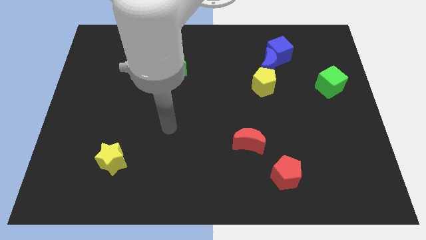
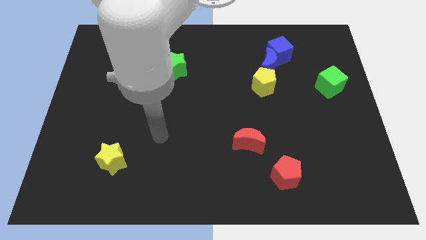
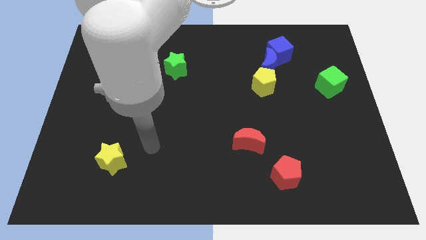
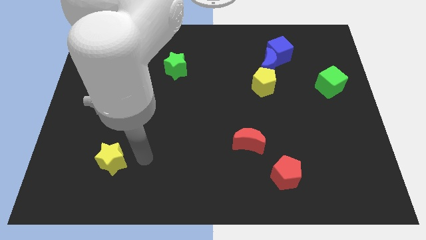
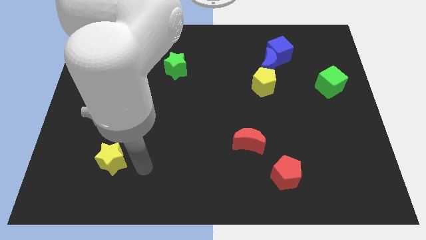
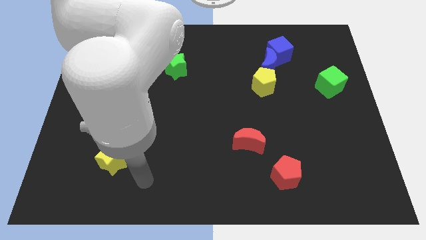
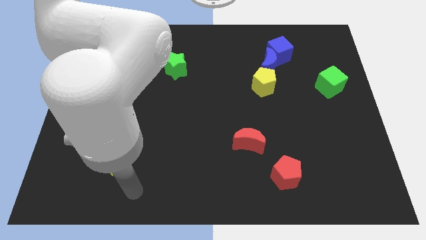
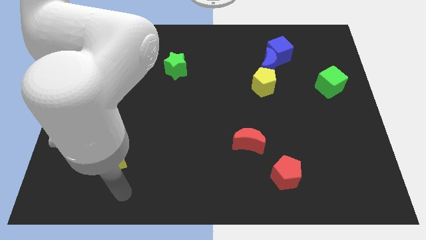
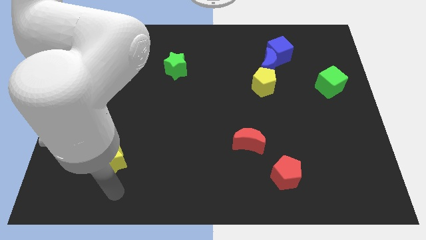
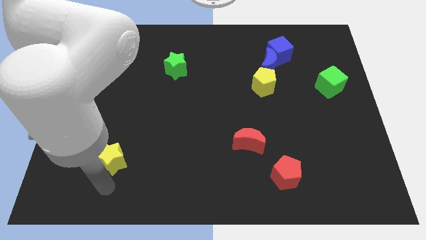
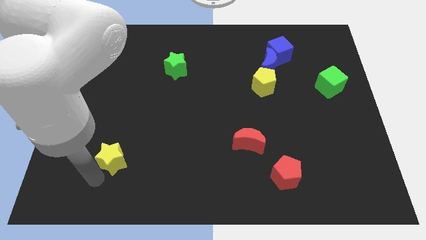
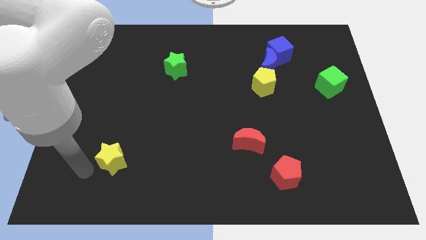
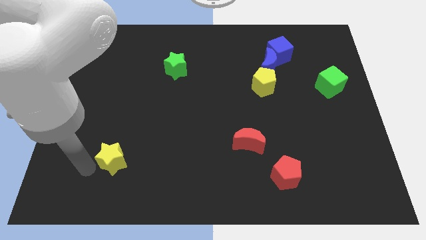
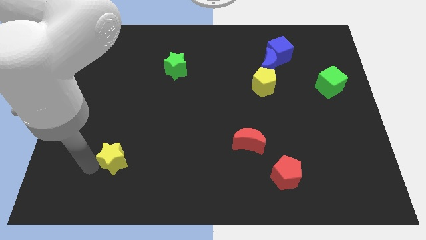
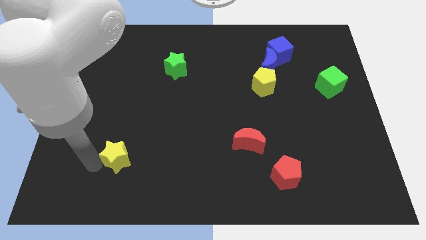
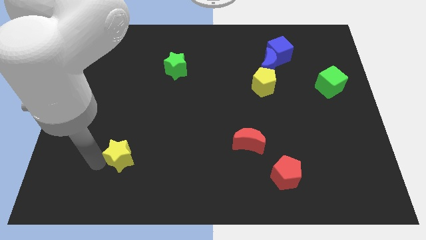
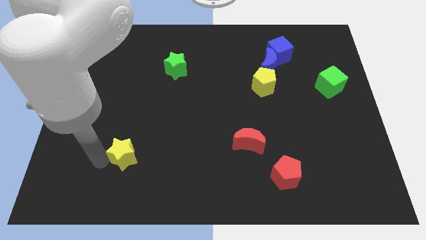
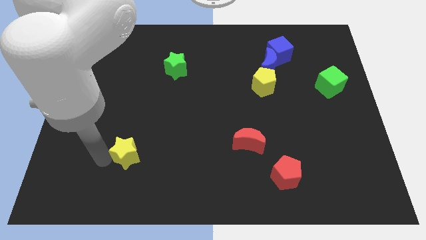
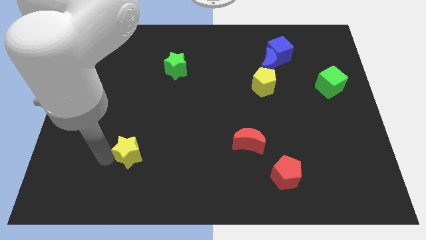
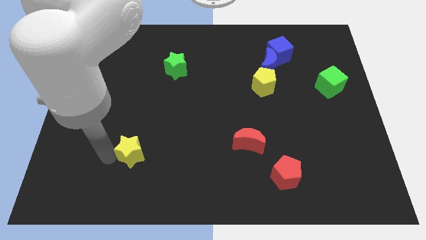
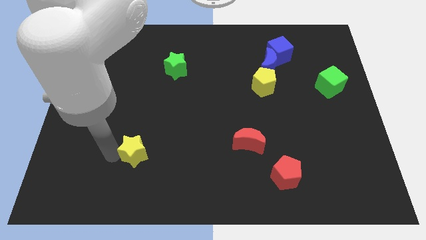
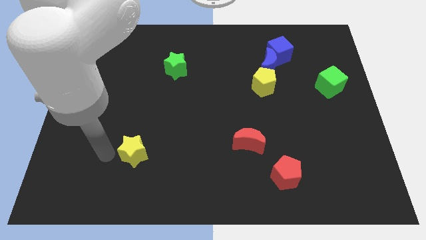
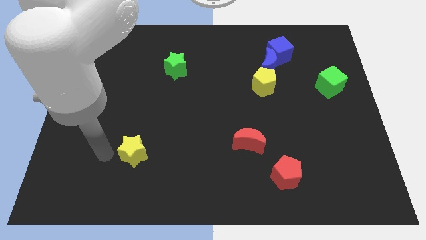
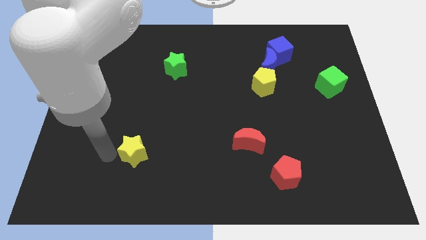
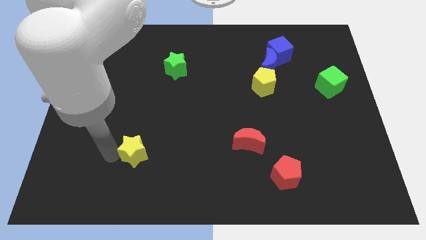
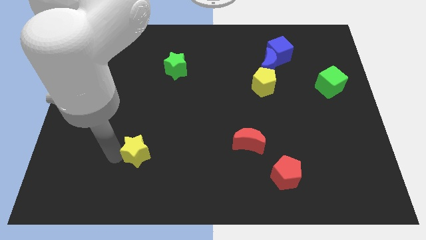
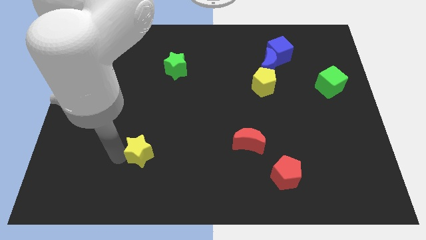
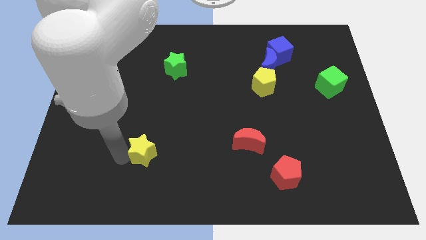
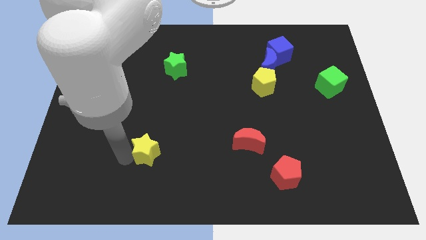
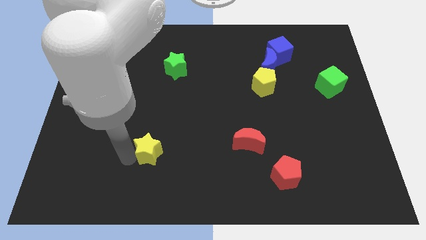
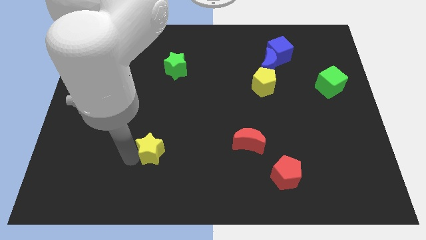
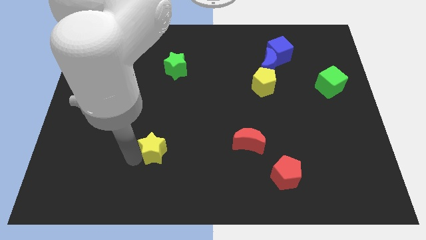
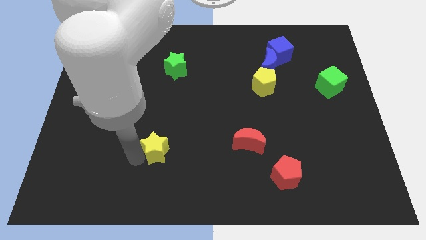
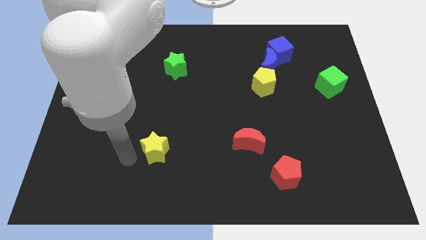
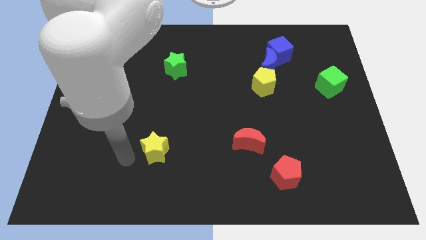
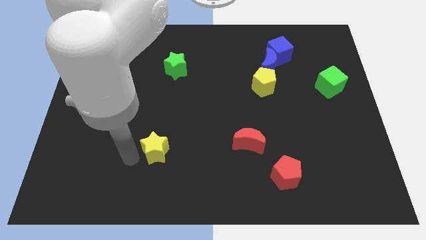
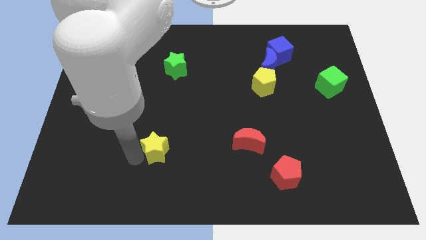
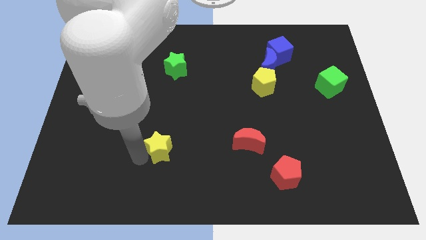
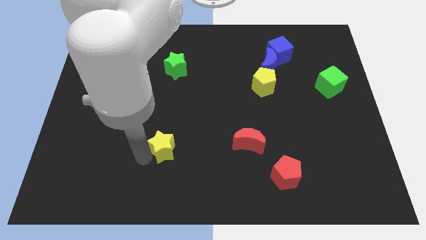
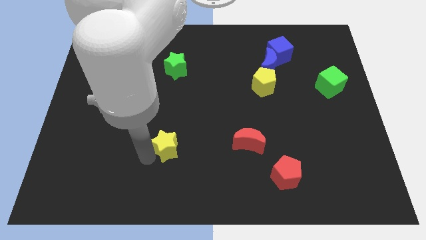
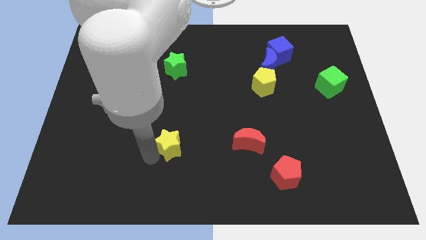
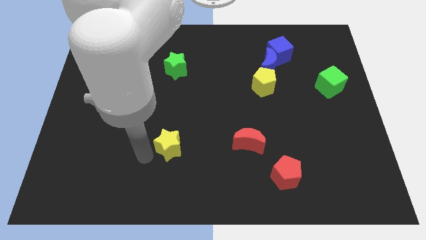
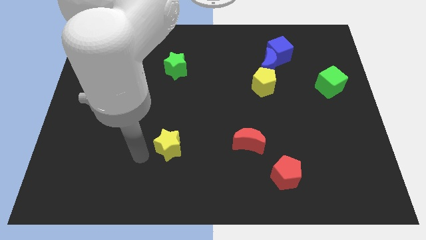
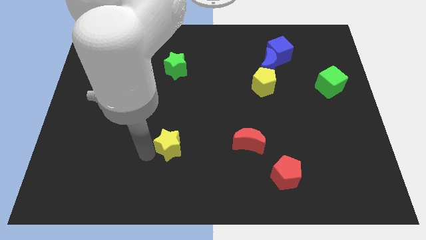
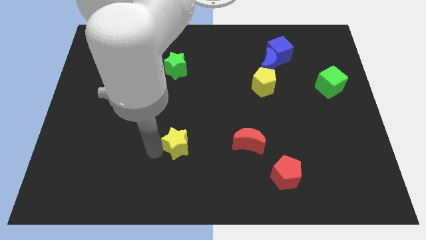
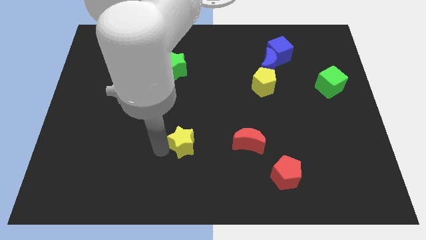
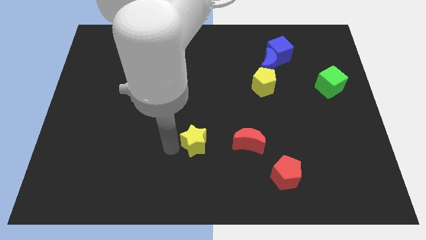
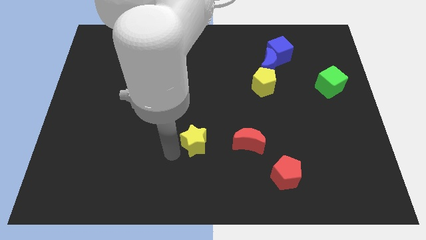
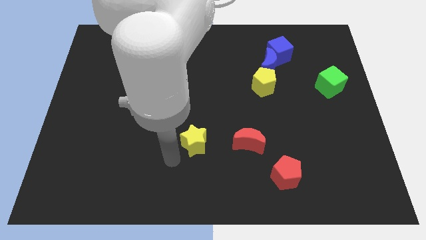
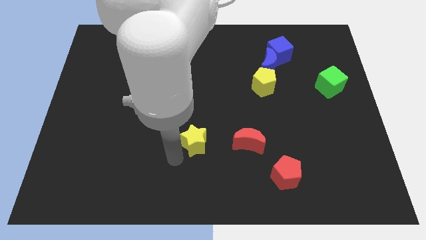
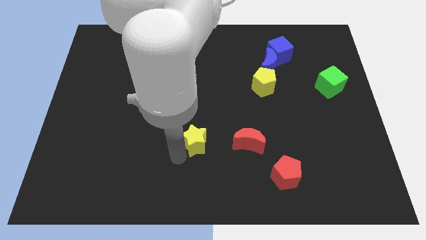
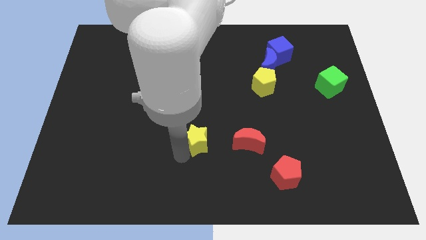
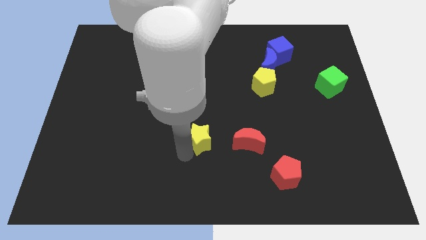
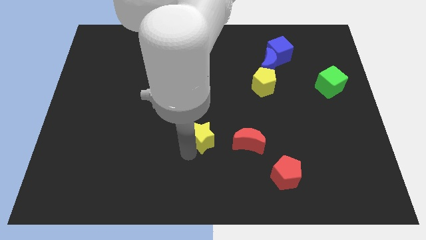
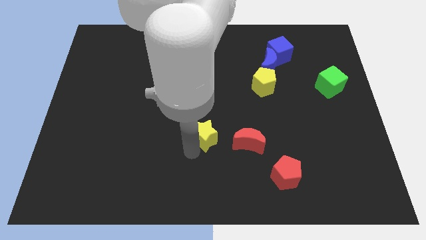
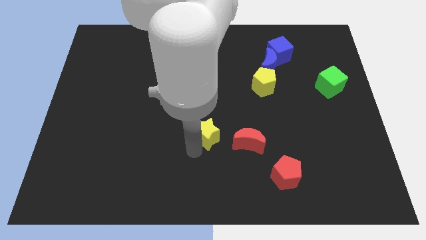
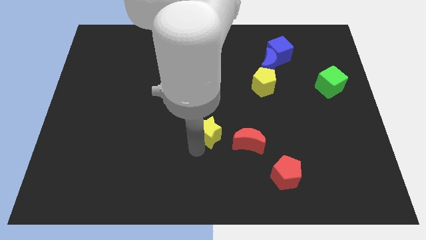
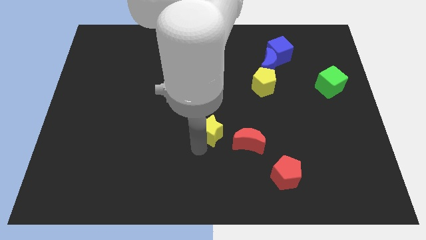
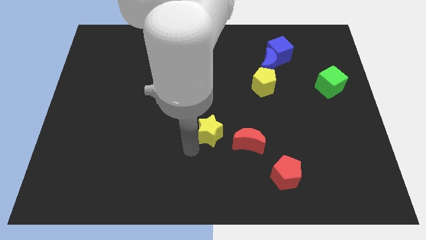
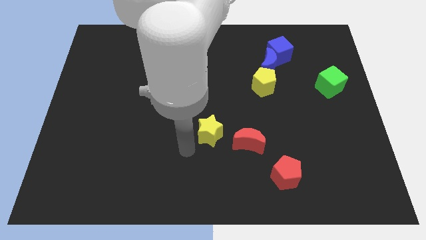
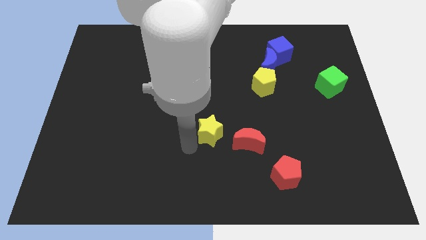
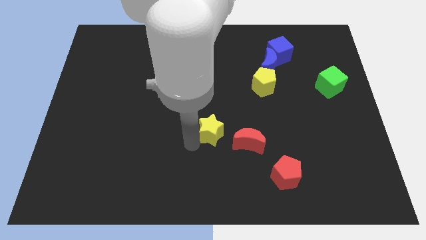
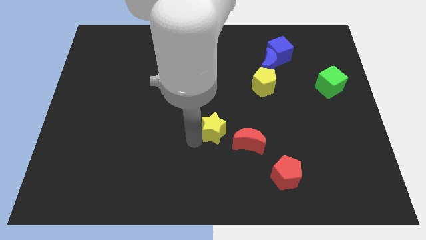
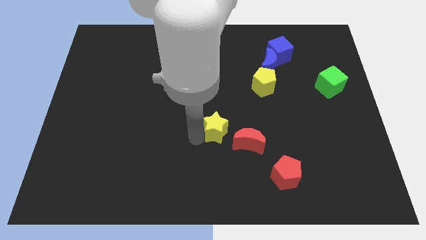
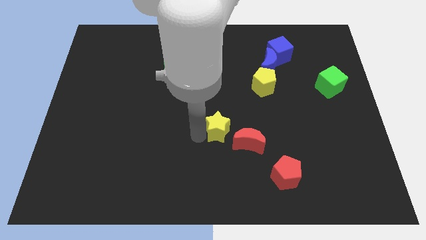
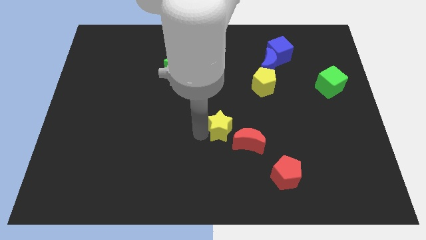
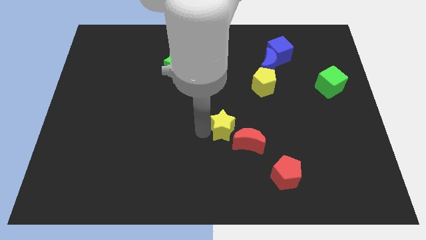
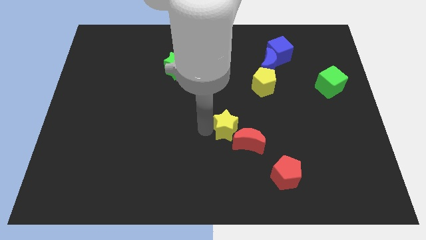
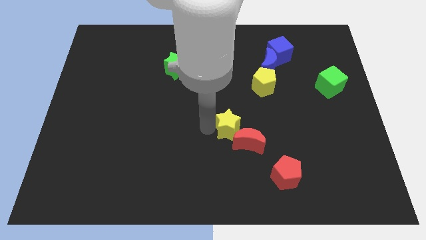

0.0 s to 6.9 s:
push the yellow star to the top of the red moon

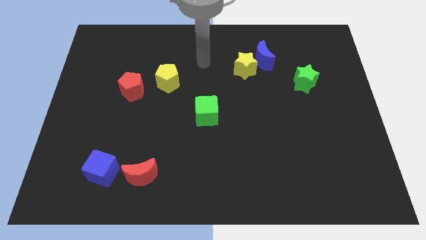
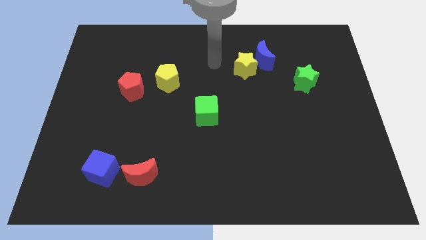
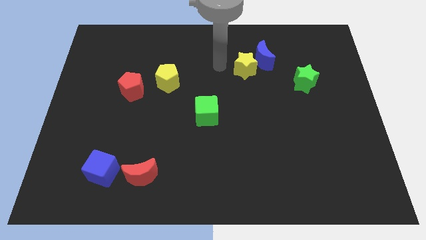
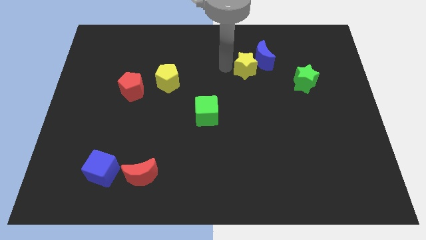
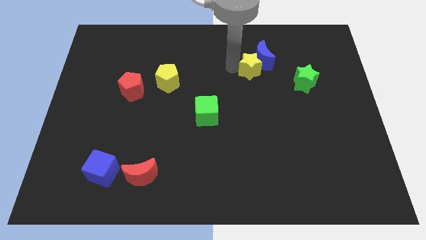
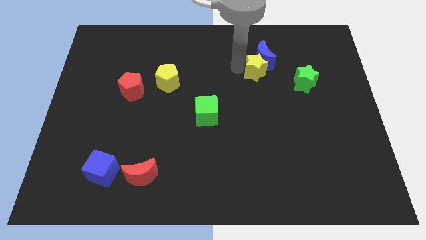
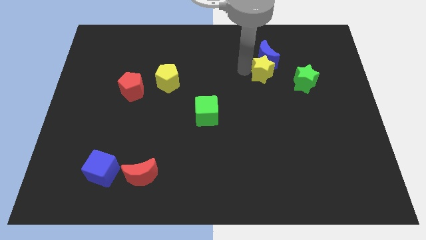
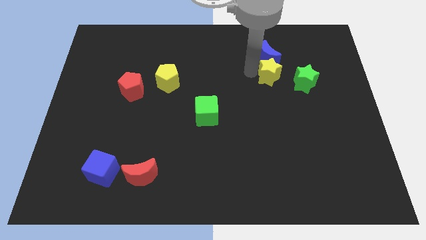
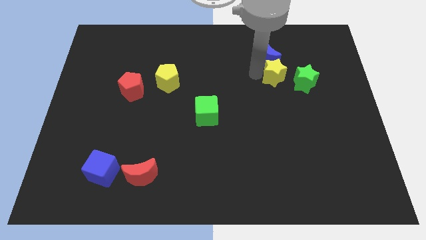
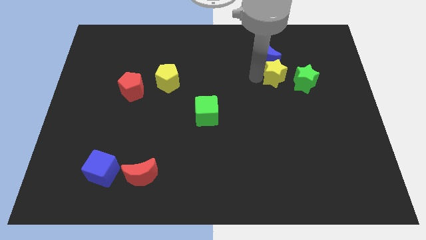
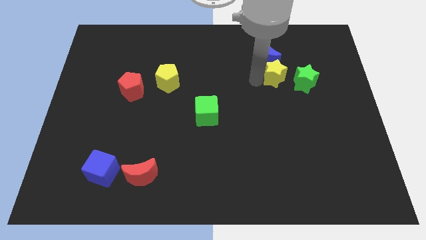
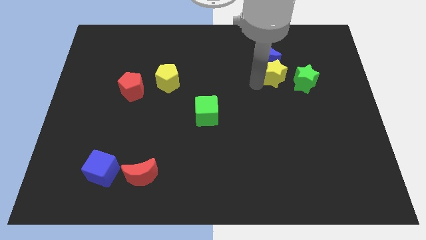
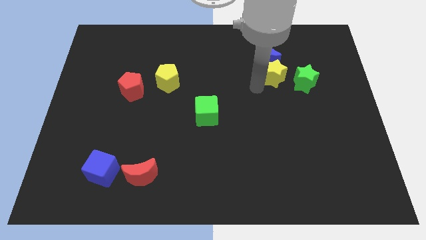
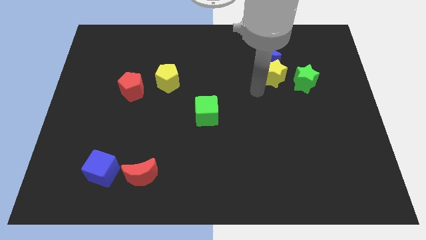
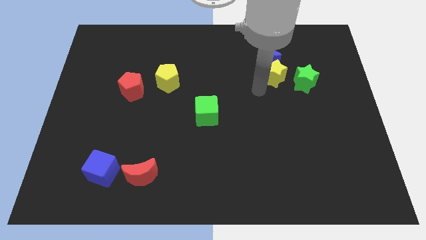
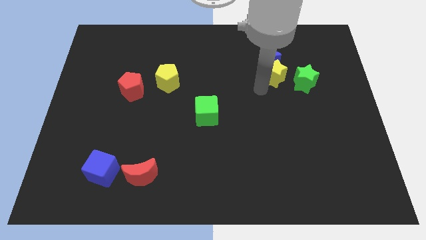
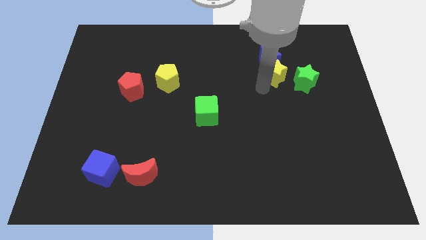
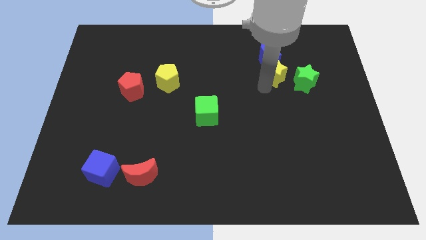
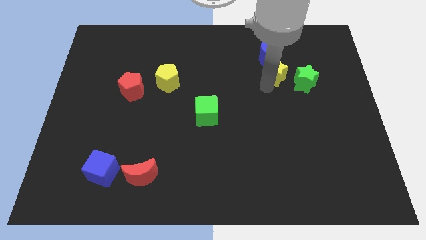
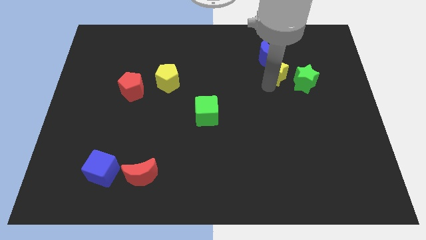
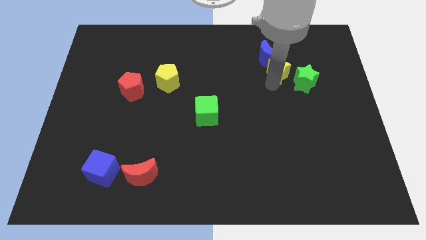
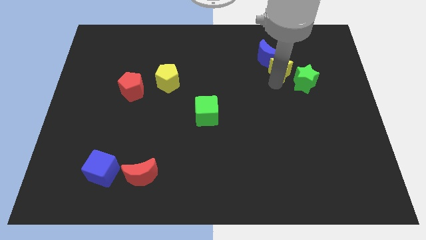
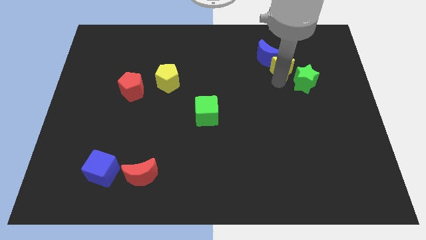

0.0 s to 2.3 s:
slide the yellow star just right of the blue moon
